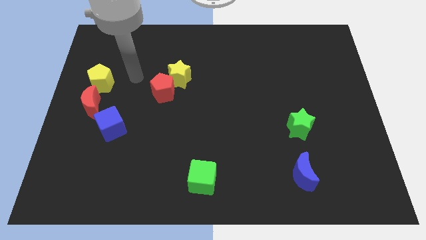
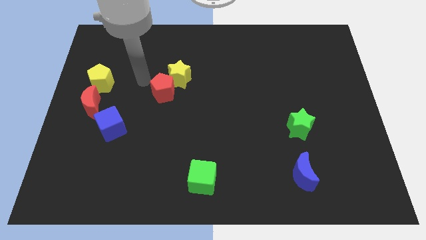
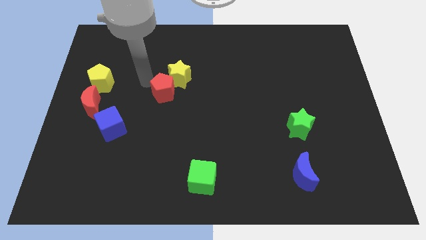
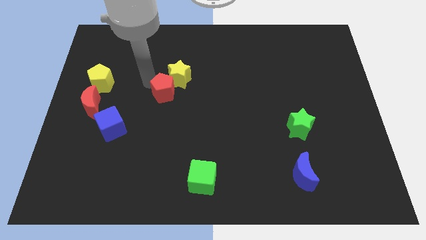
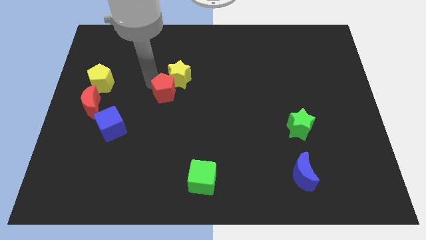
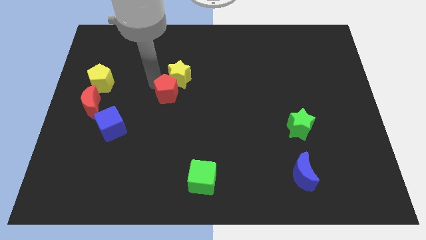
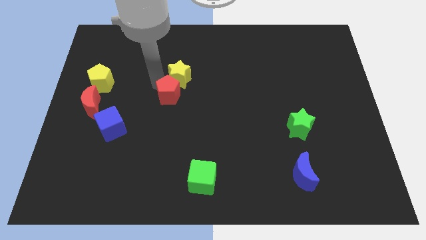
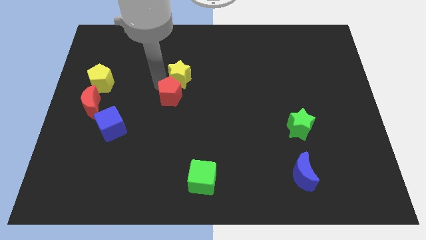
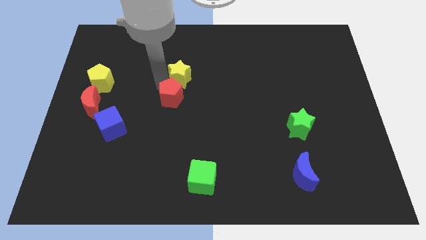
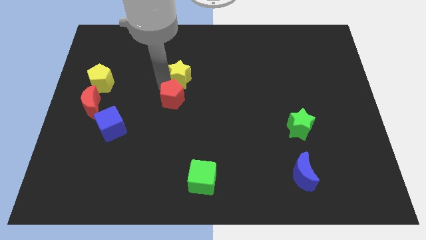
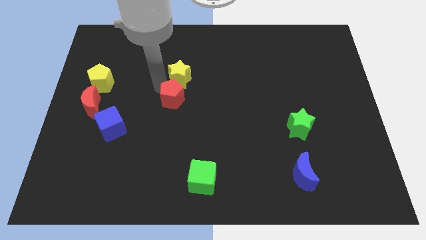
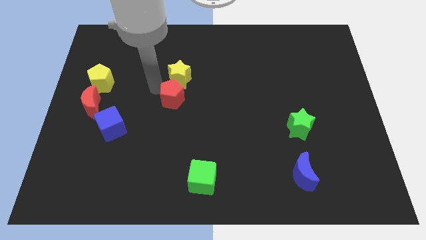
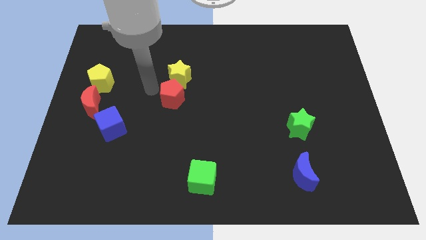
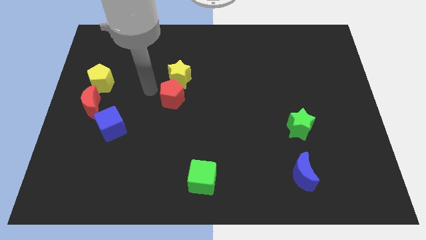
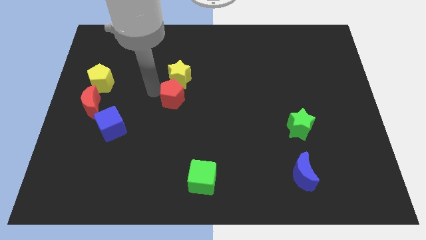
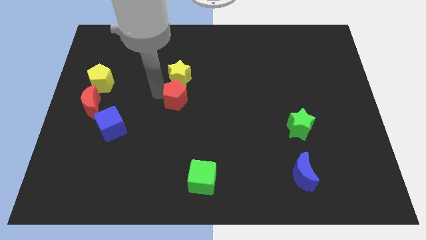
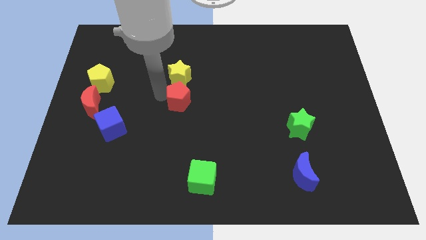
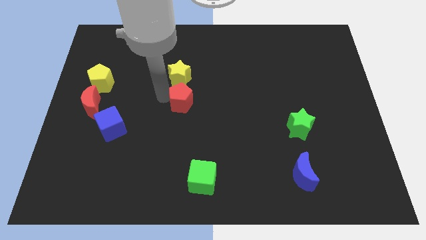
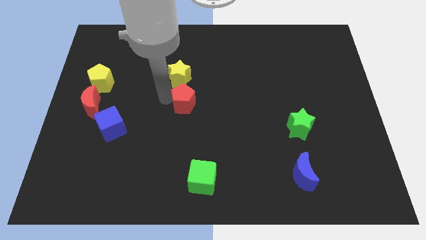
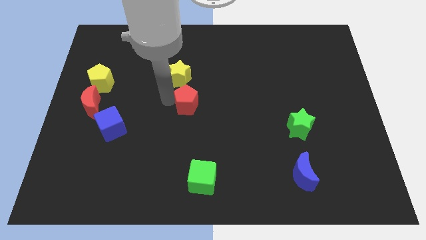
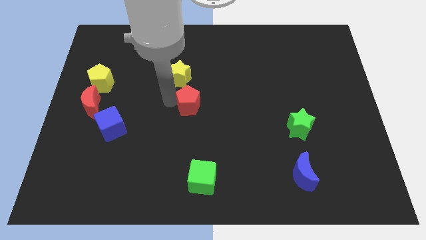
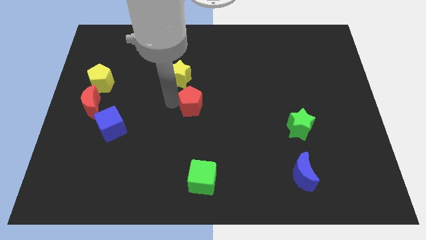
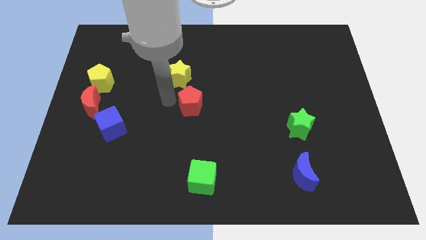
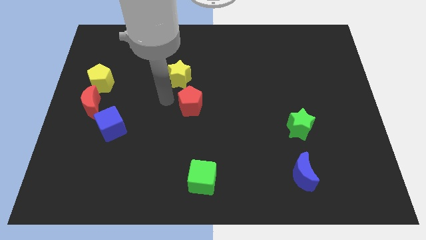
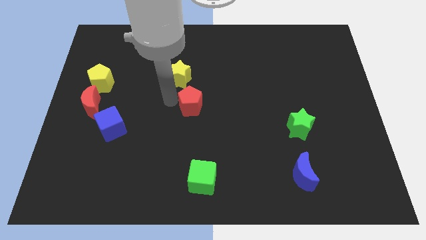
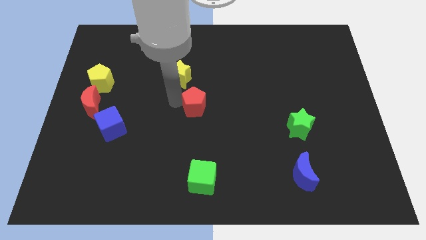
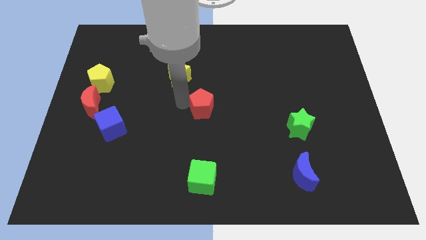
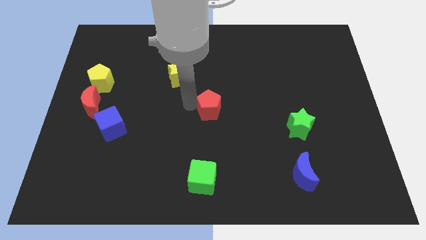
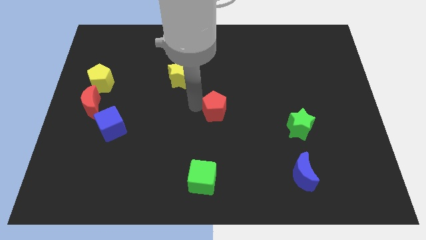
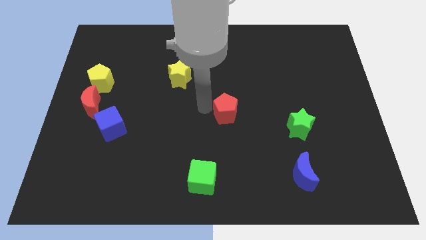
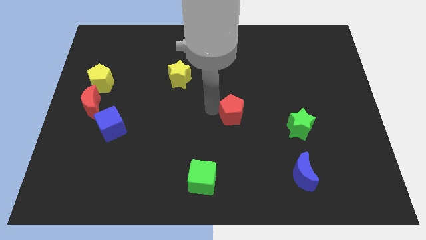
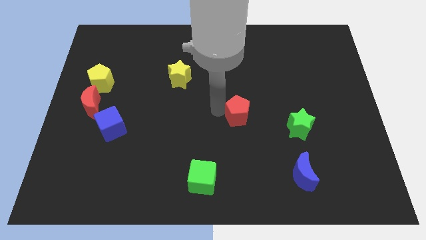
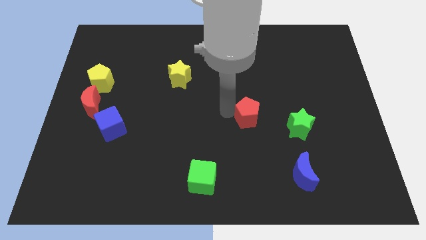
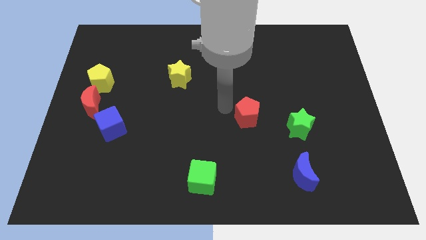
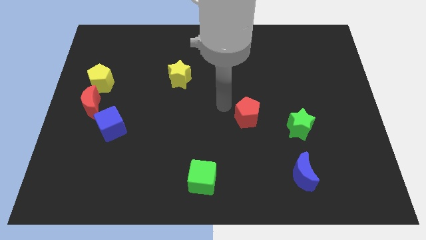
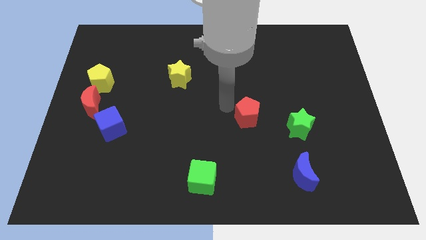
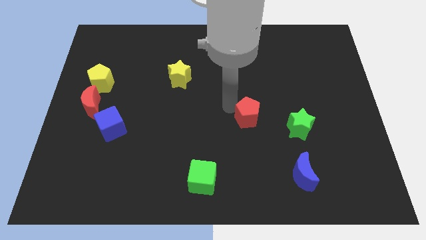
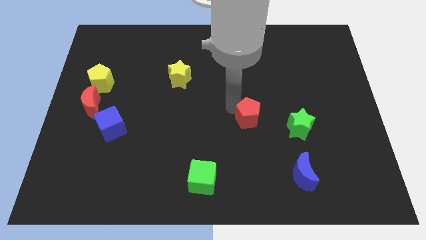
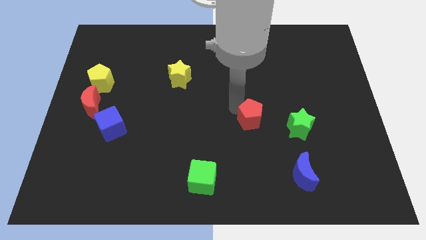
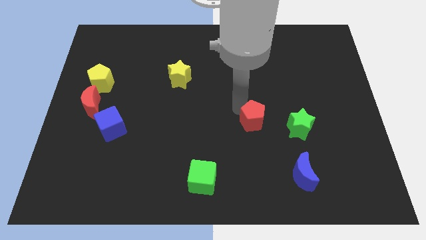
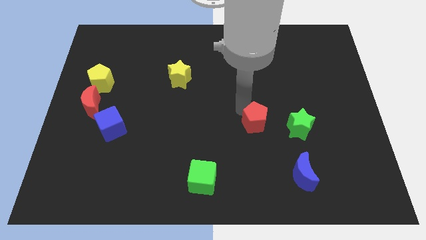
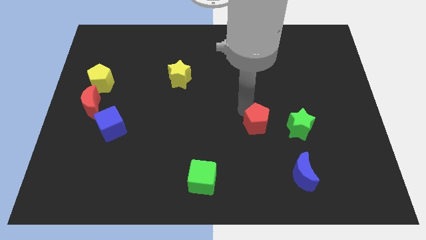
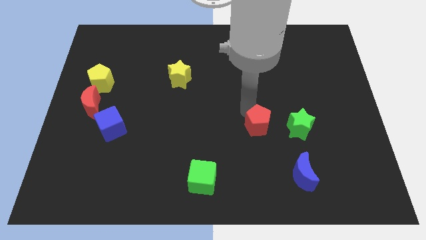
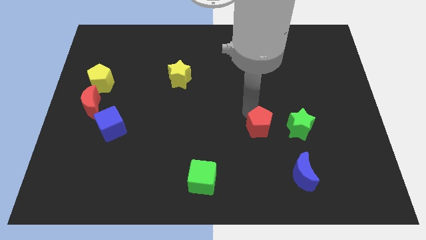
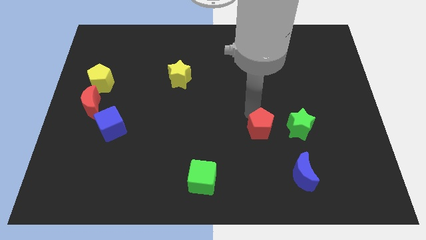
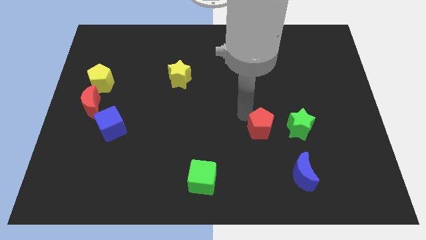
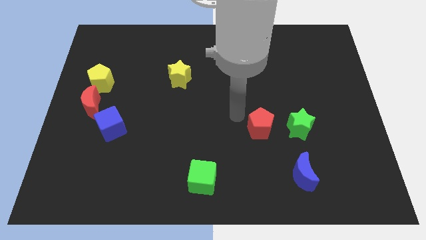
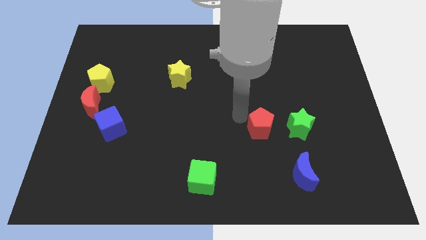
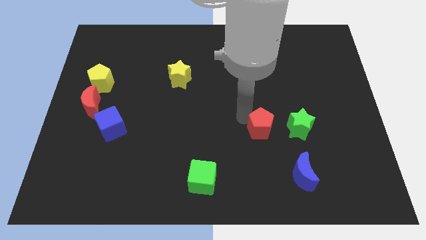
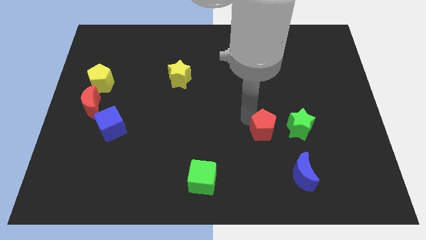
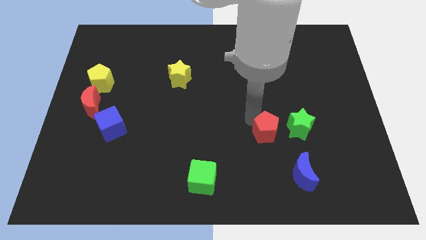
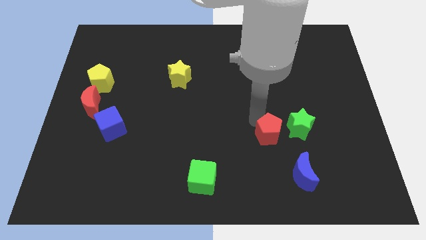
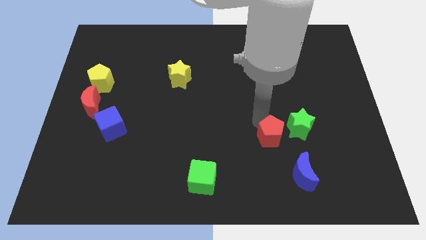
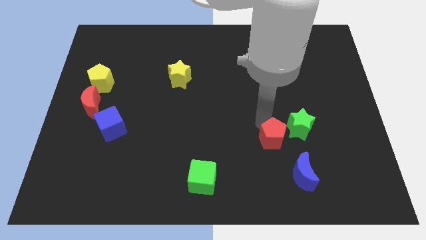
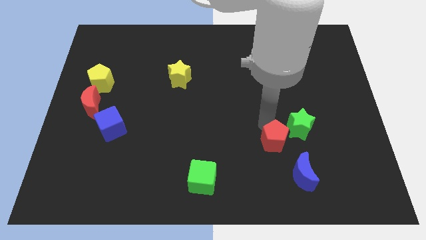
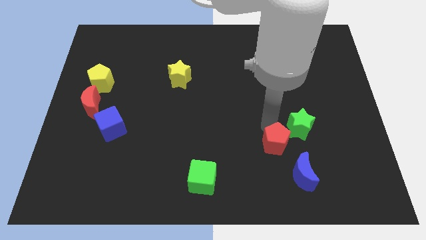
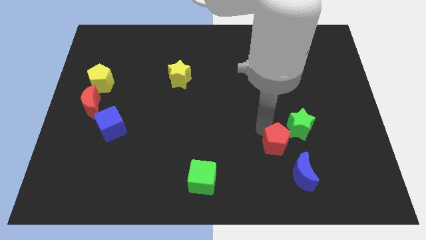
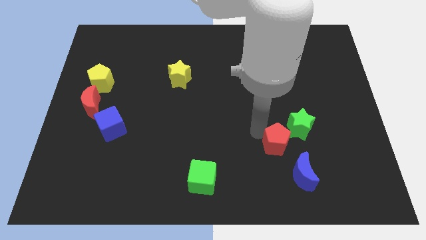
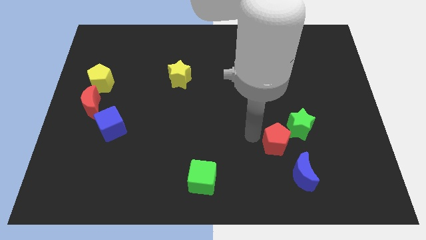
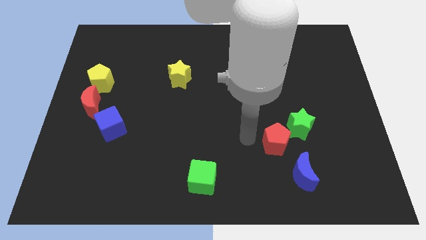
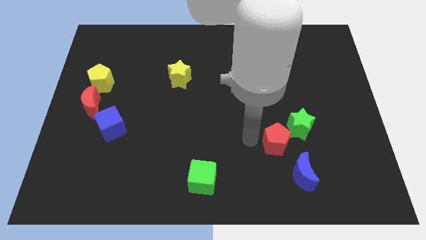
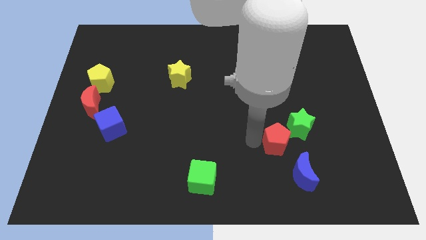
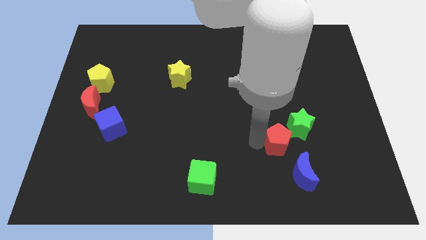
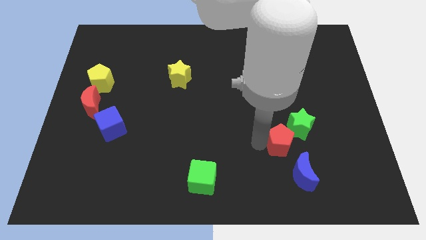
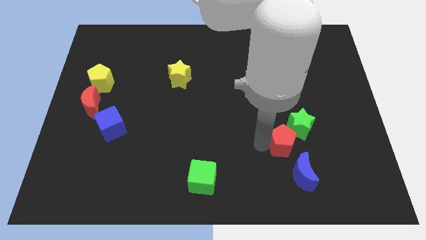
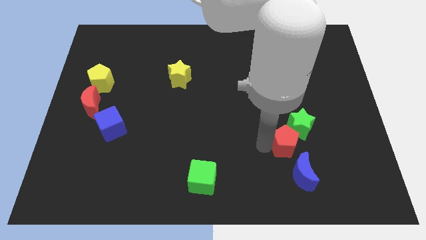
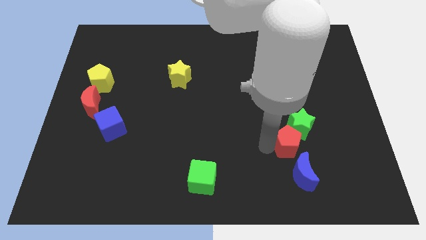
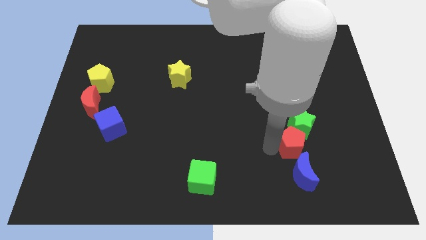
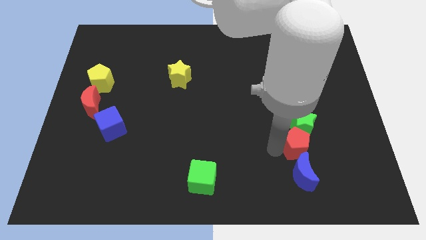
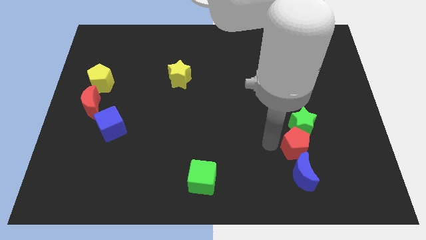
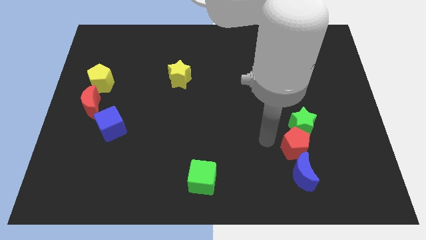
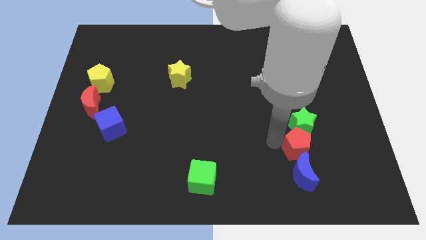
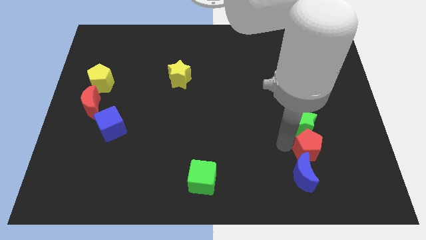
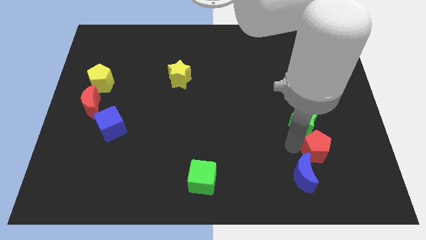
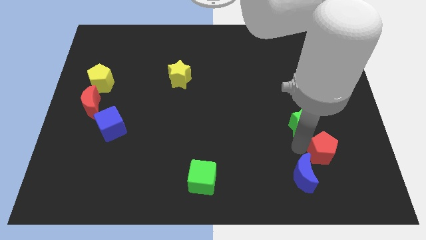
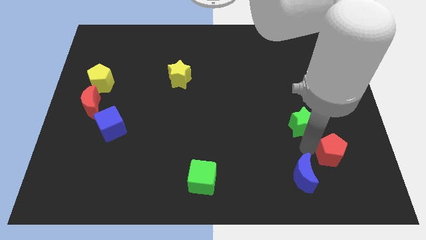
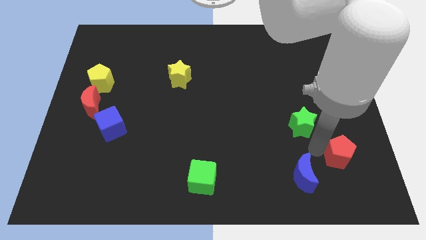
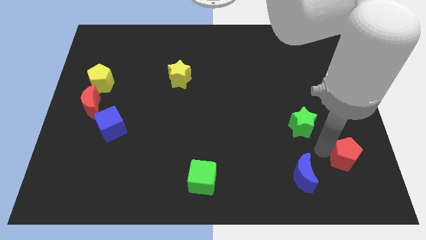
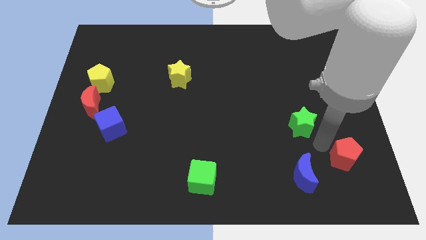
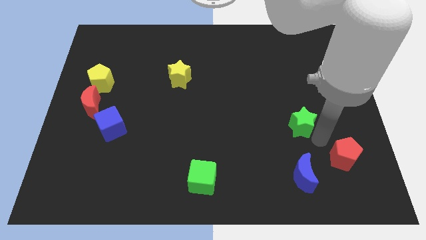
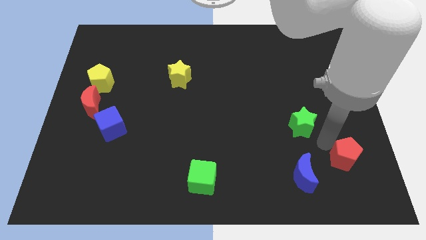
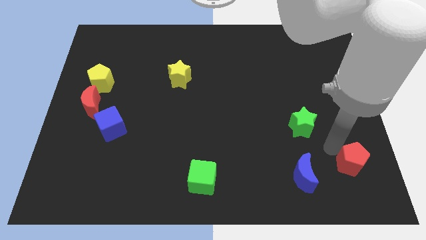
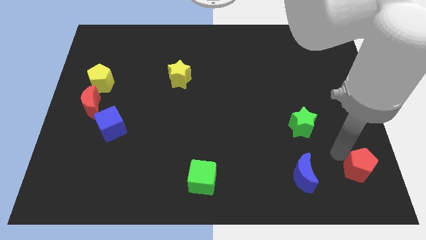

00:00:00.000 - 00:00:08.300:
move the red pentagon to the lower right corner
